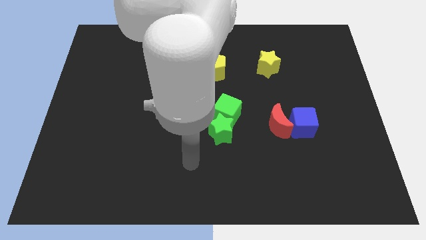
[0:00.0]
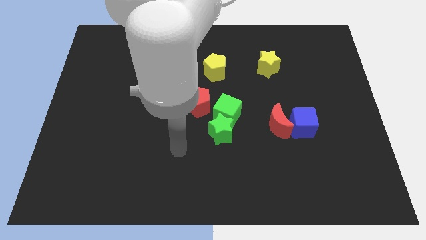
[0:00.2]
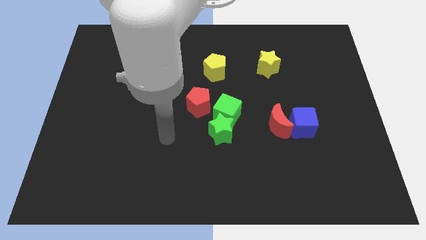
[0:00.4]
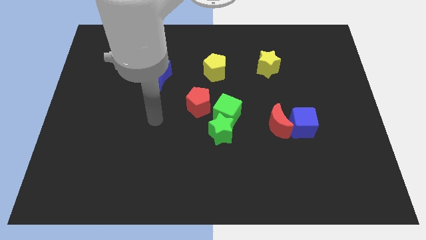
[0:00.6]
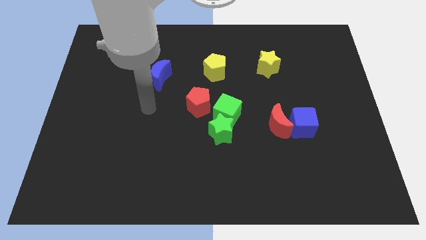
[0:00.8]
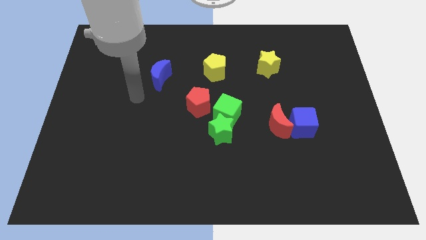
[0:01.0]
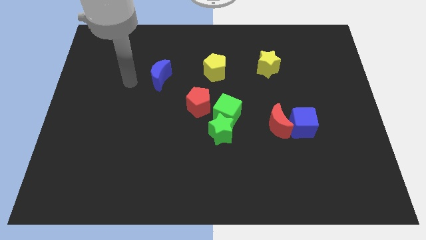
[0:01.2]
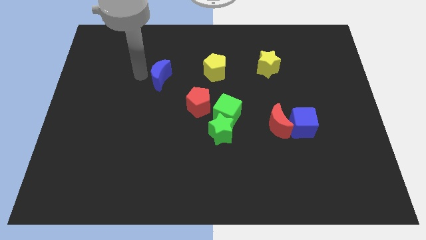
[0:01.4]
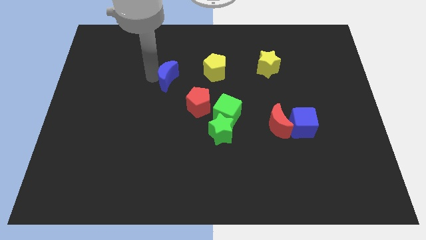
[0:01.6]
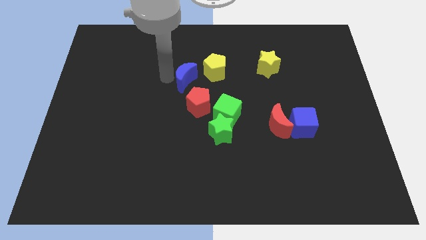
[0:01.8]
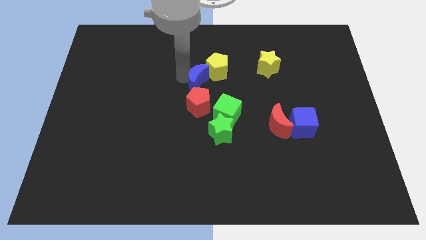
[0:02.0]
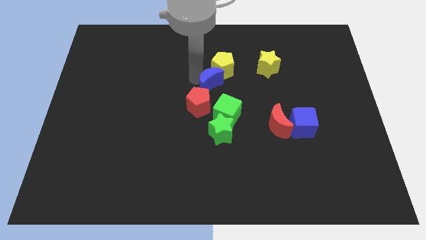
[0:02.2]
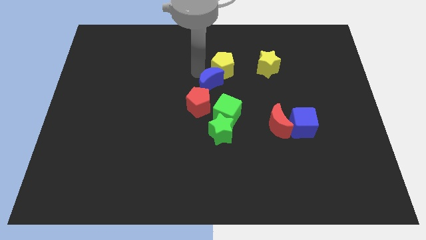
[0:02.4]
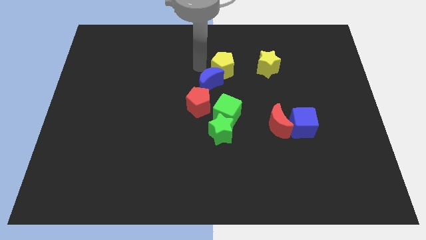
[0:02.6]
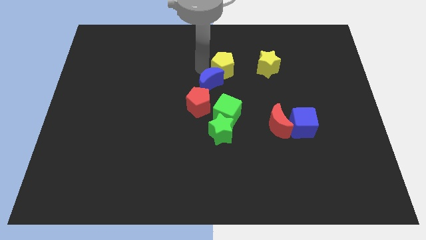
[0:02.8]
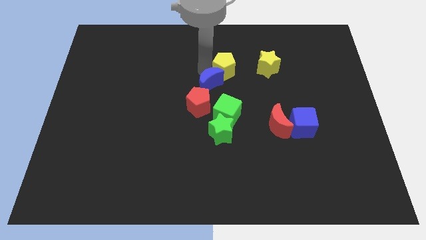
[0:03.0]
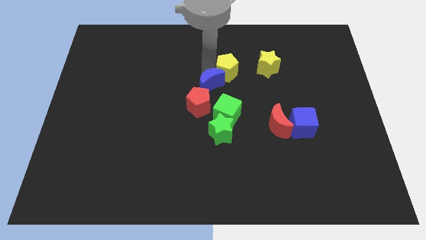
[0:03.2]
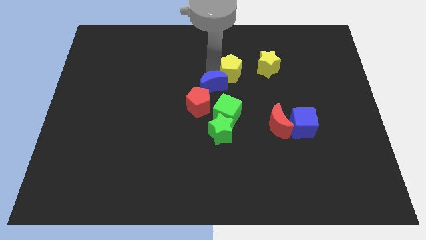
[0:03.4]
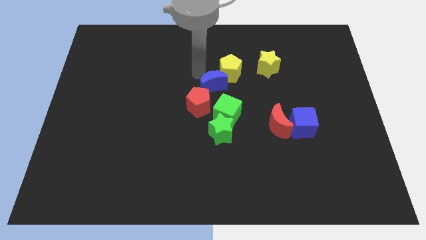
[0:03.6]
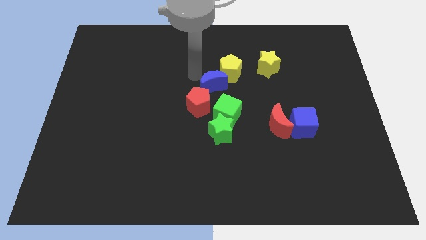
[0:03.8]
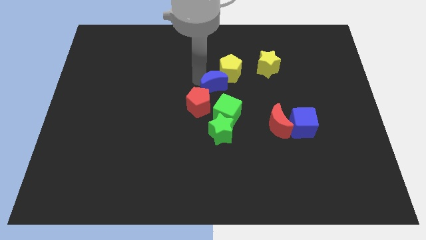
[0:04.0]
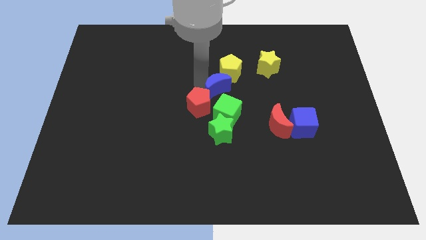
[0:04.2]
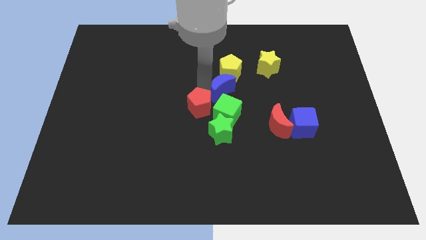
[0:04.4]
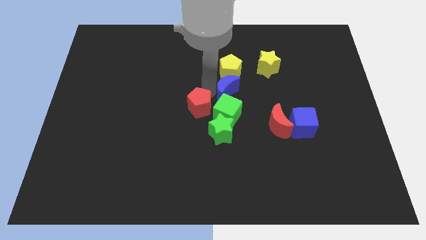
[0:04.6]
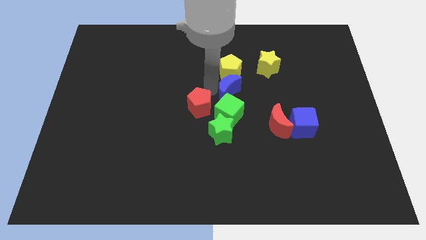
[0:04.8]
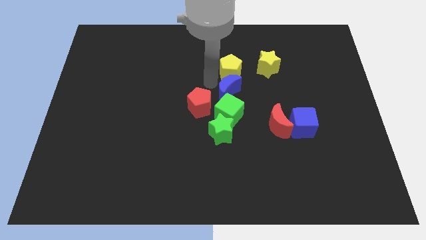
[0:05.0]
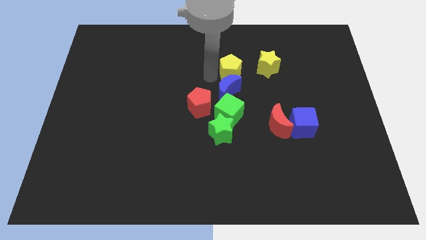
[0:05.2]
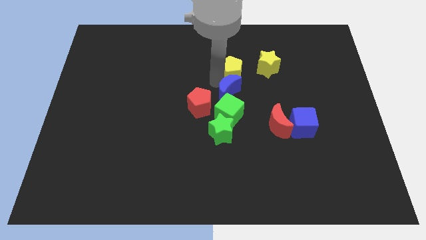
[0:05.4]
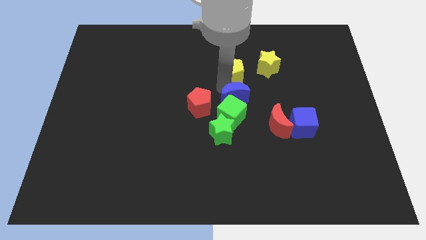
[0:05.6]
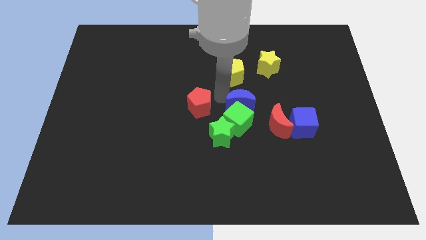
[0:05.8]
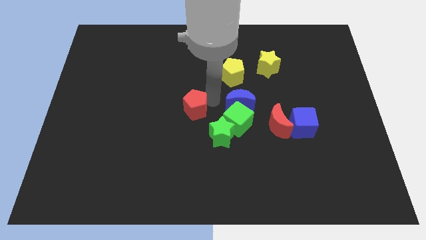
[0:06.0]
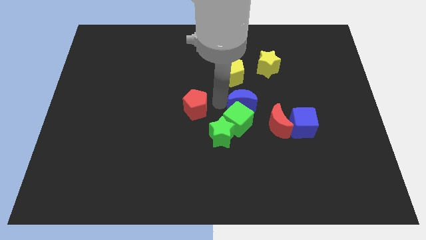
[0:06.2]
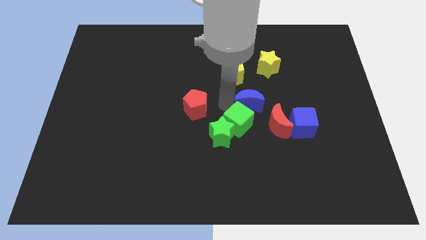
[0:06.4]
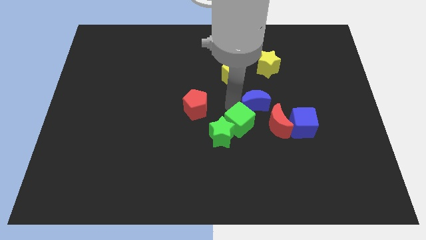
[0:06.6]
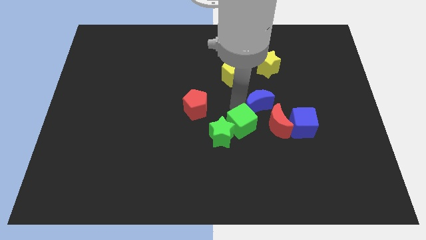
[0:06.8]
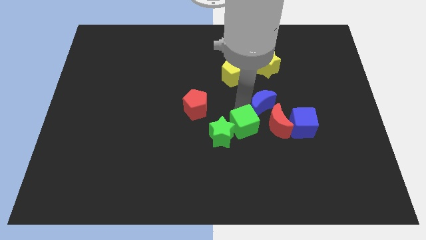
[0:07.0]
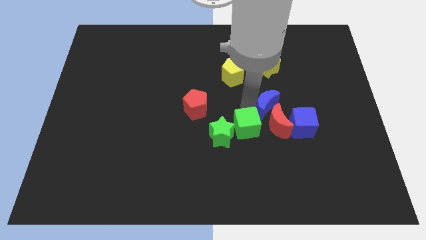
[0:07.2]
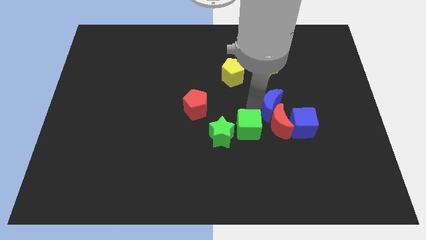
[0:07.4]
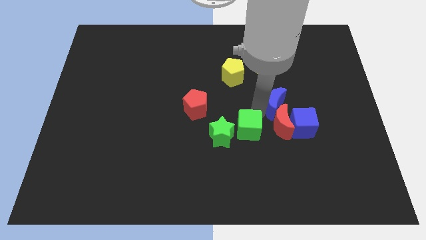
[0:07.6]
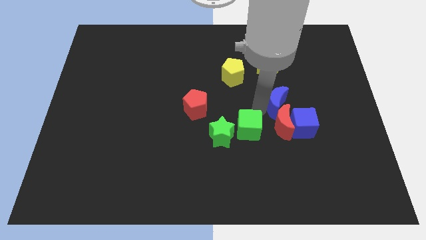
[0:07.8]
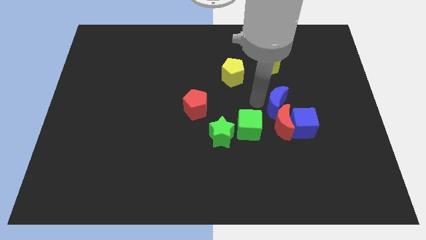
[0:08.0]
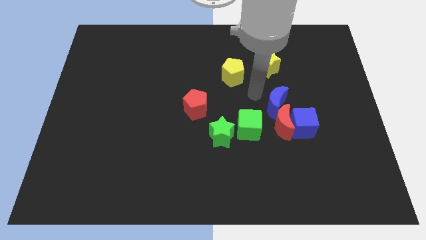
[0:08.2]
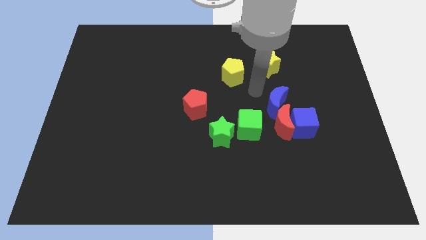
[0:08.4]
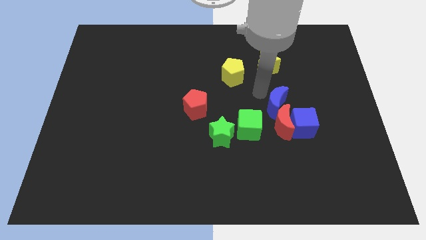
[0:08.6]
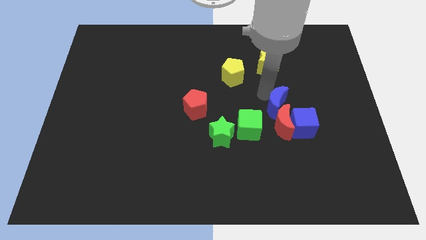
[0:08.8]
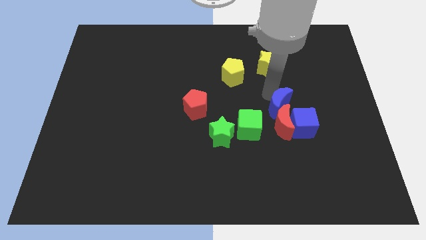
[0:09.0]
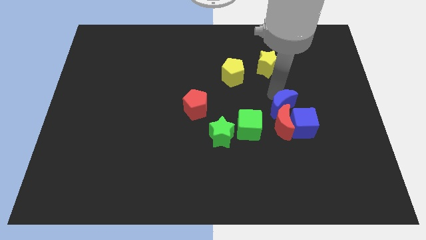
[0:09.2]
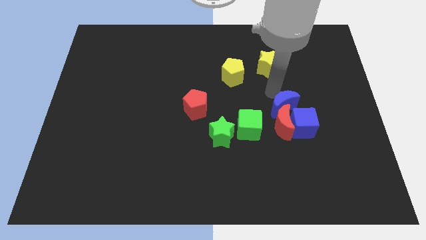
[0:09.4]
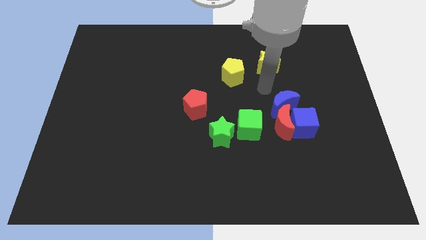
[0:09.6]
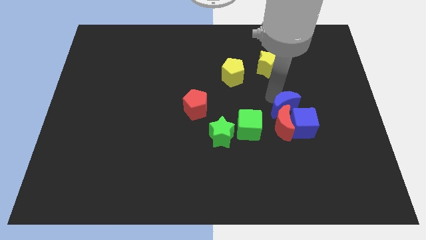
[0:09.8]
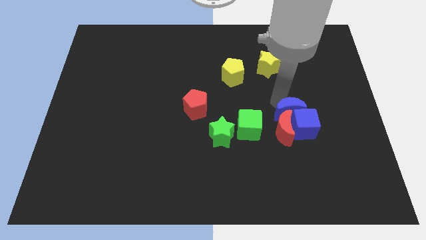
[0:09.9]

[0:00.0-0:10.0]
move the blue moon to the blue cube

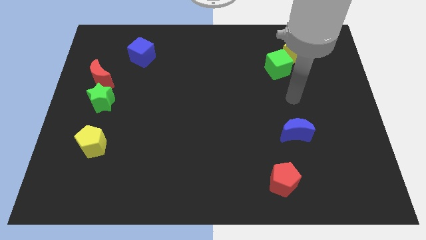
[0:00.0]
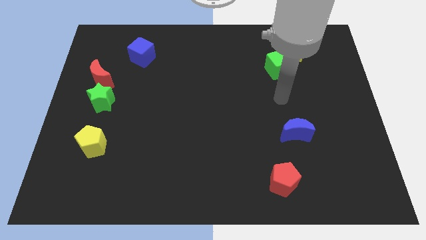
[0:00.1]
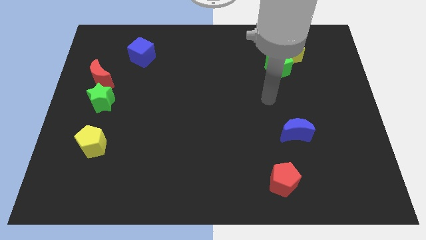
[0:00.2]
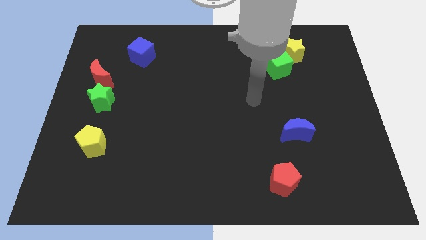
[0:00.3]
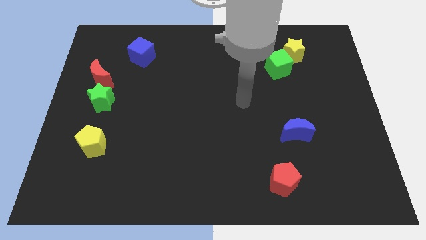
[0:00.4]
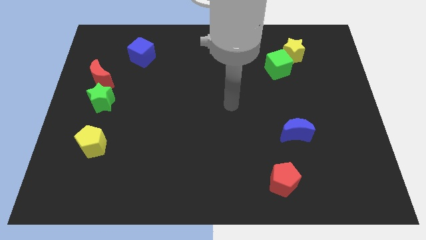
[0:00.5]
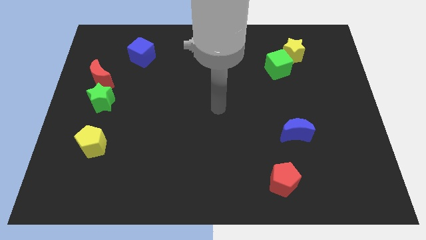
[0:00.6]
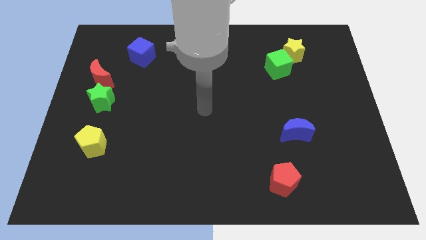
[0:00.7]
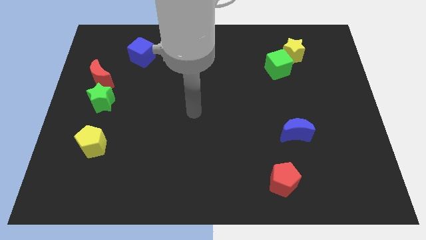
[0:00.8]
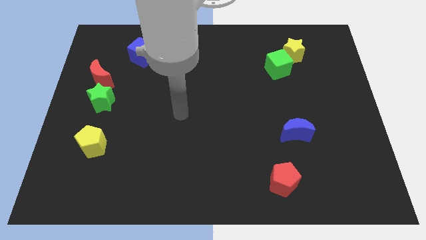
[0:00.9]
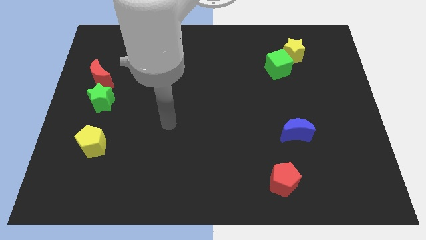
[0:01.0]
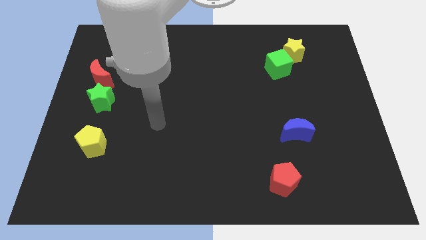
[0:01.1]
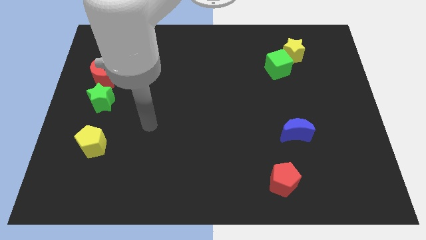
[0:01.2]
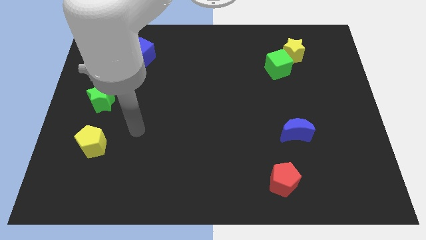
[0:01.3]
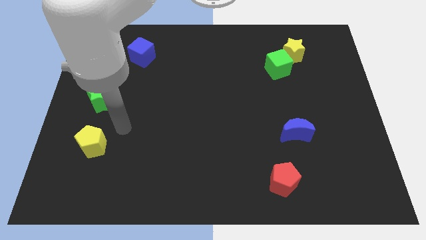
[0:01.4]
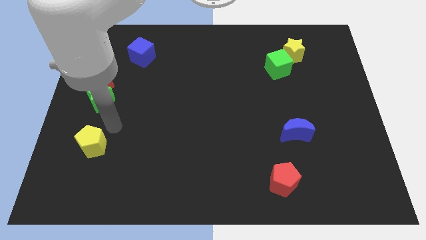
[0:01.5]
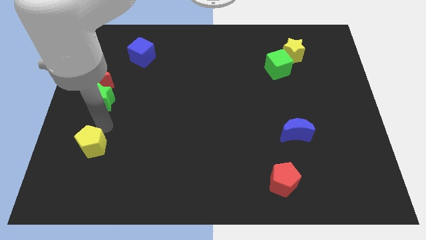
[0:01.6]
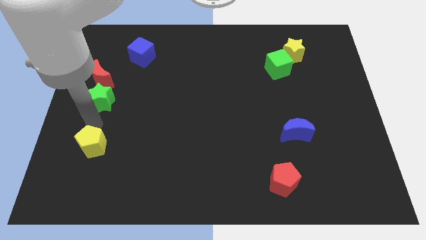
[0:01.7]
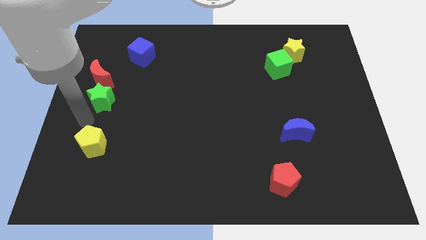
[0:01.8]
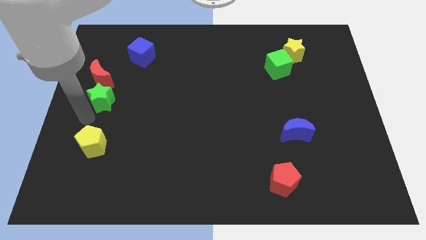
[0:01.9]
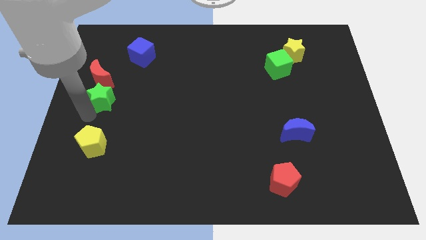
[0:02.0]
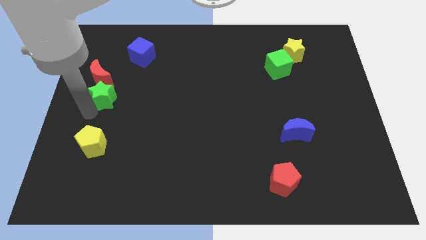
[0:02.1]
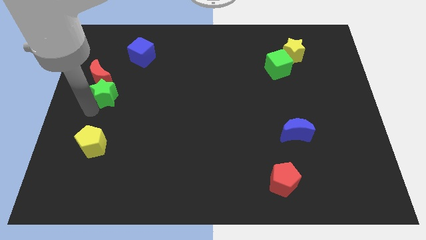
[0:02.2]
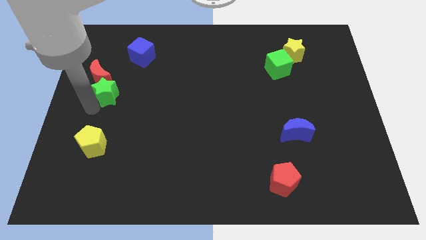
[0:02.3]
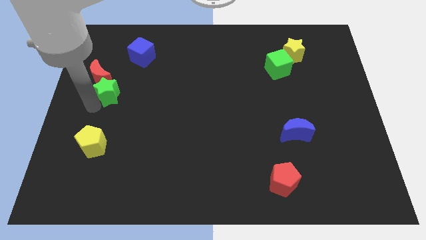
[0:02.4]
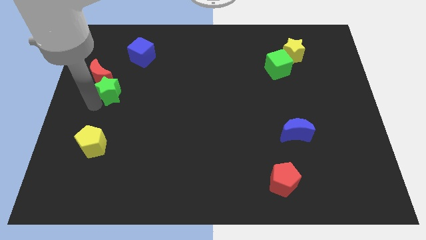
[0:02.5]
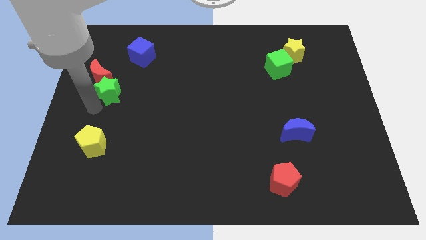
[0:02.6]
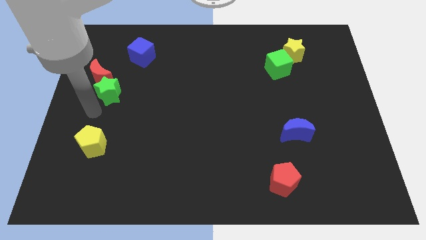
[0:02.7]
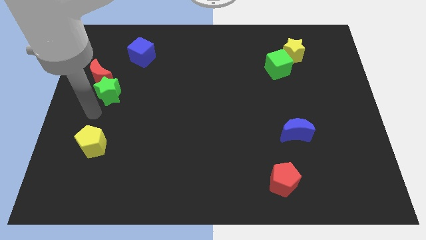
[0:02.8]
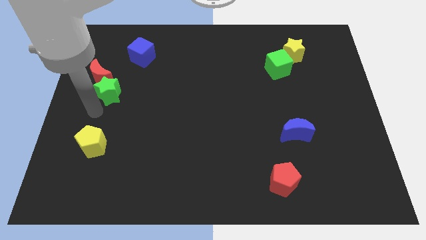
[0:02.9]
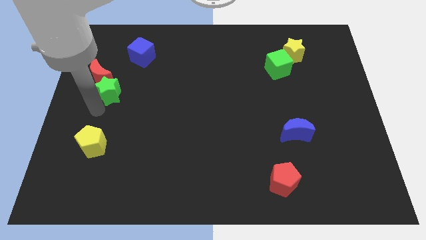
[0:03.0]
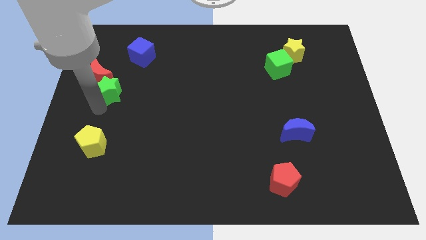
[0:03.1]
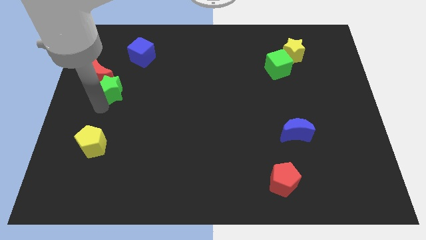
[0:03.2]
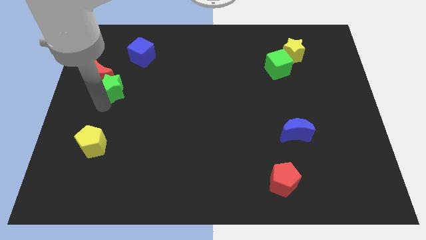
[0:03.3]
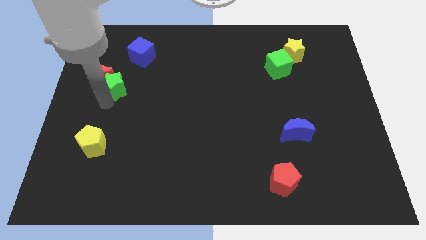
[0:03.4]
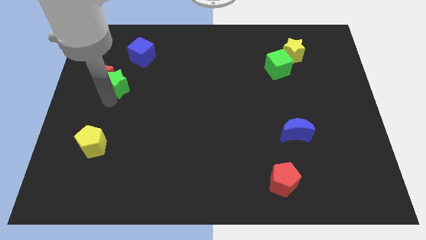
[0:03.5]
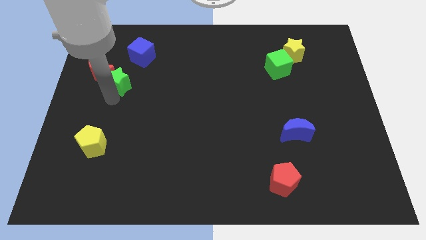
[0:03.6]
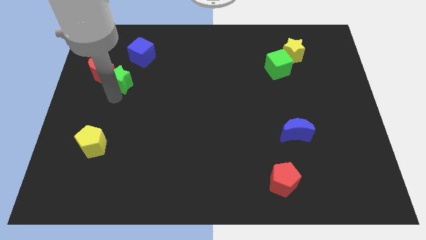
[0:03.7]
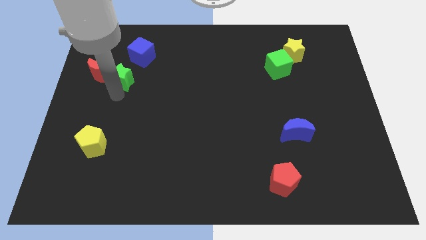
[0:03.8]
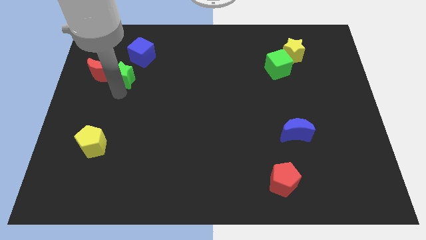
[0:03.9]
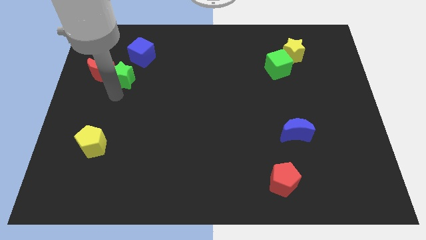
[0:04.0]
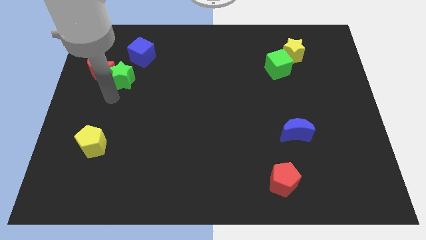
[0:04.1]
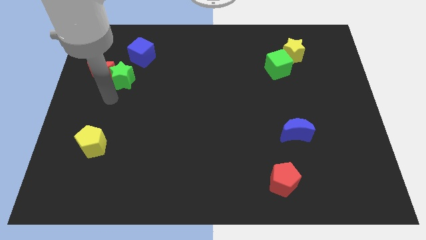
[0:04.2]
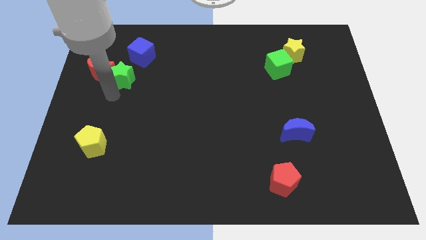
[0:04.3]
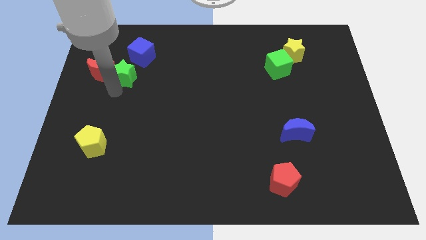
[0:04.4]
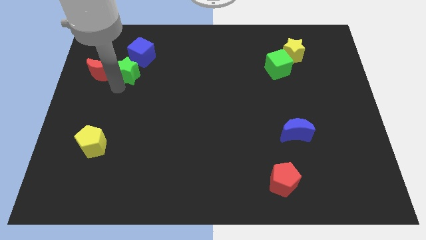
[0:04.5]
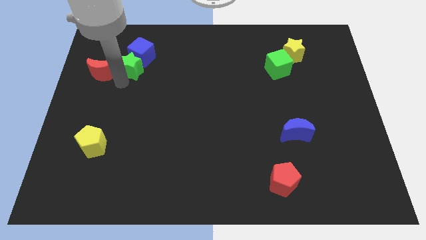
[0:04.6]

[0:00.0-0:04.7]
push the green star to the blue cube
